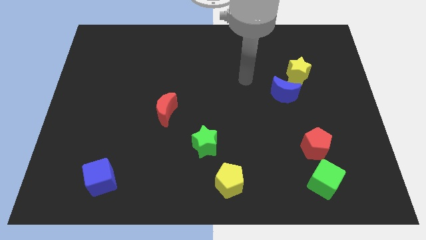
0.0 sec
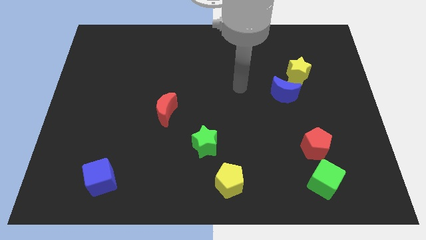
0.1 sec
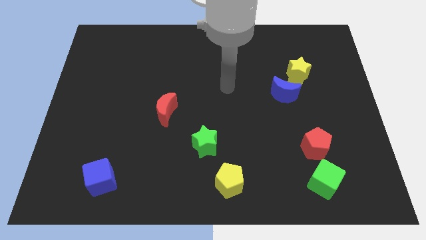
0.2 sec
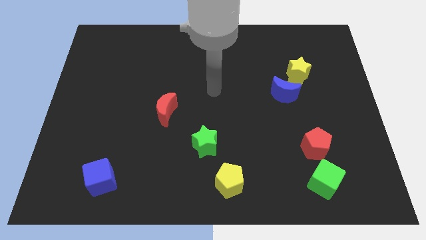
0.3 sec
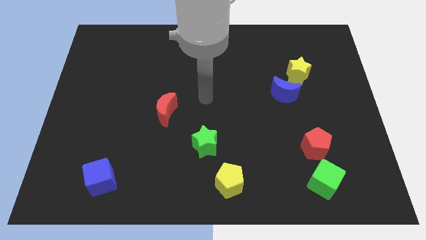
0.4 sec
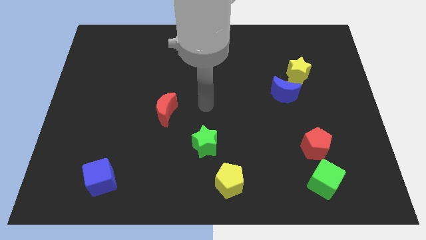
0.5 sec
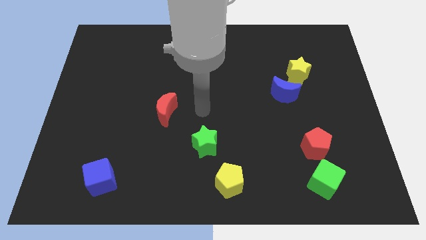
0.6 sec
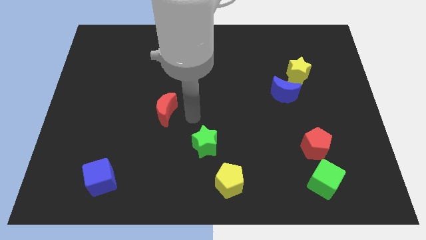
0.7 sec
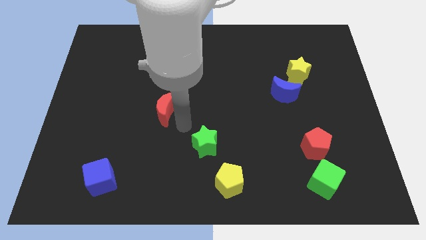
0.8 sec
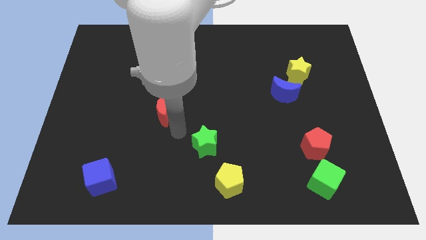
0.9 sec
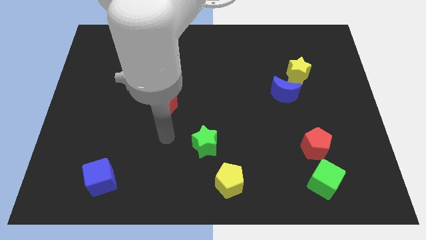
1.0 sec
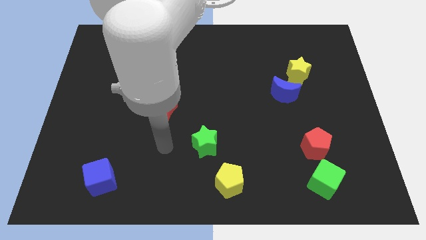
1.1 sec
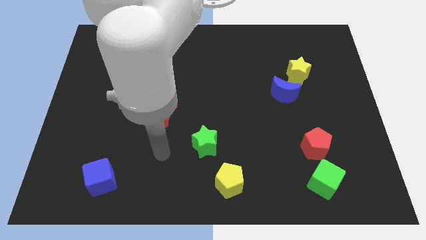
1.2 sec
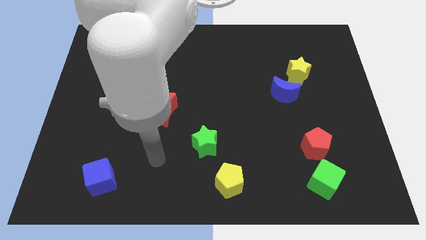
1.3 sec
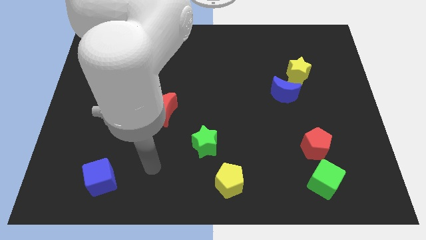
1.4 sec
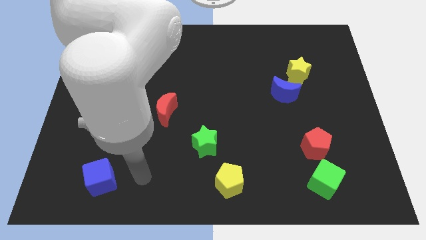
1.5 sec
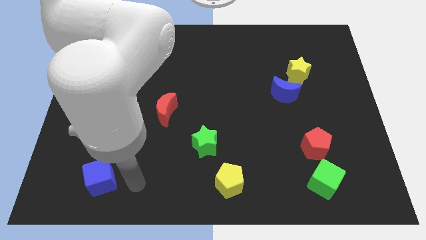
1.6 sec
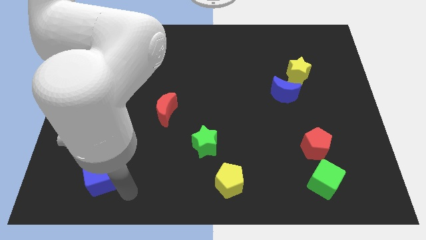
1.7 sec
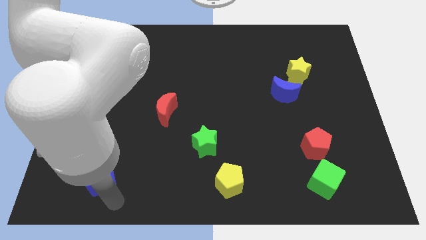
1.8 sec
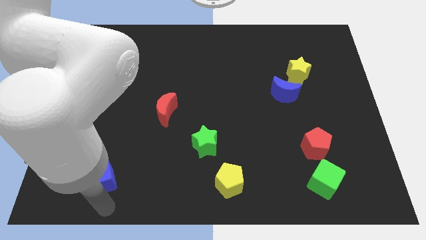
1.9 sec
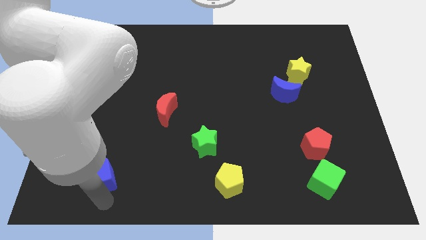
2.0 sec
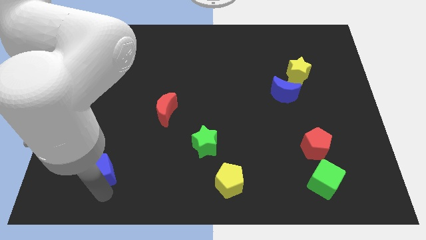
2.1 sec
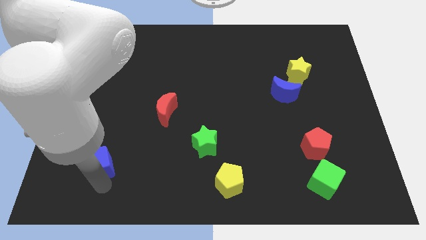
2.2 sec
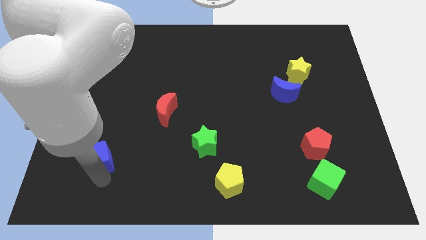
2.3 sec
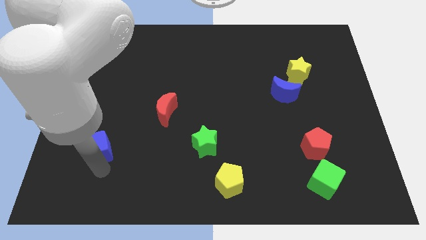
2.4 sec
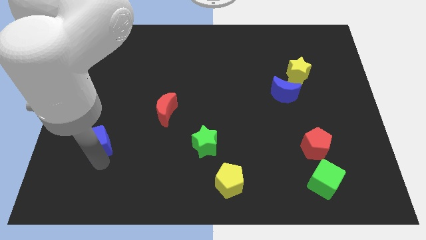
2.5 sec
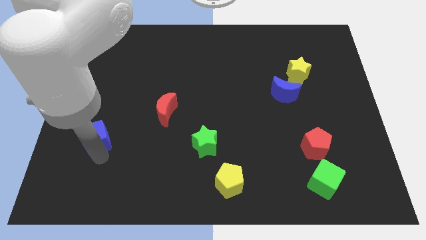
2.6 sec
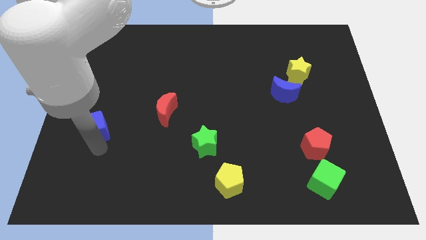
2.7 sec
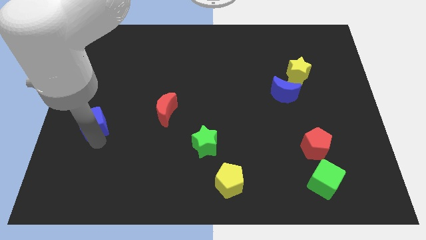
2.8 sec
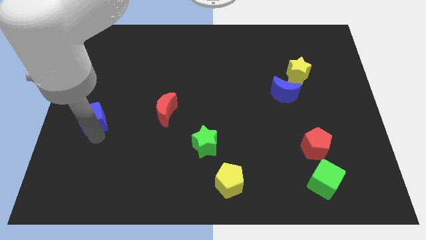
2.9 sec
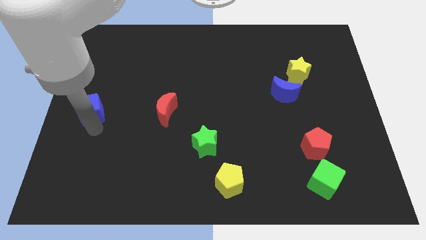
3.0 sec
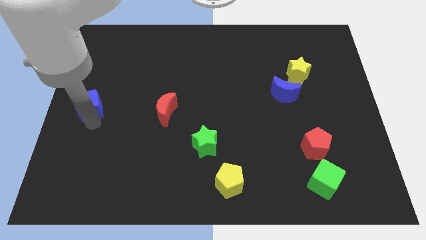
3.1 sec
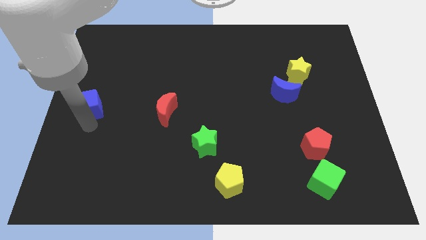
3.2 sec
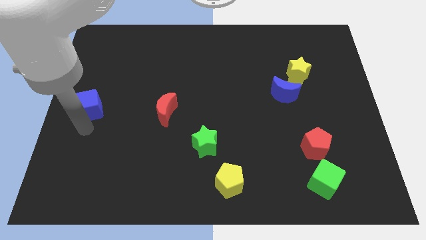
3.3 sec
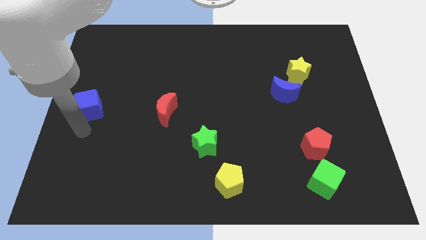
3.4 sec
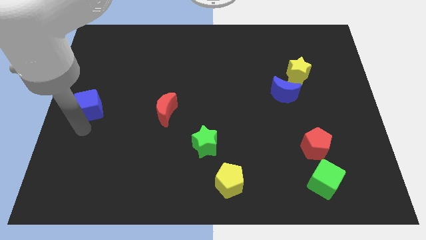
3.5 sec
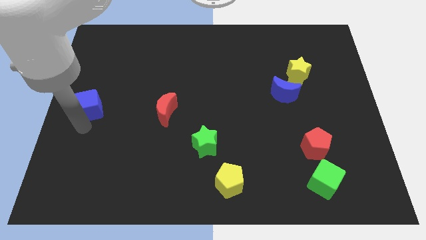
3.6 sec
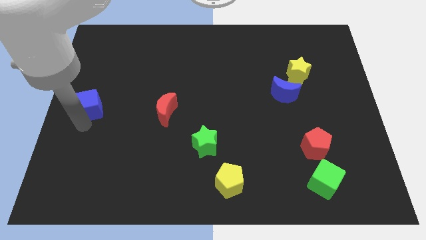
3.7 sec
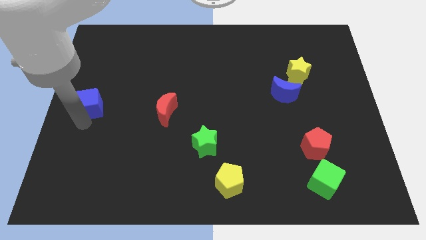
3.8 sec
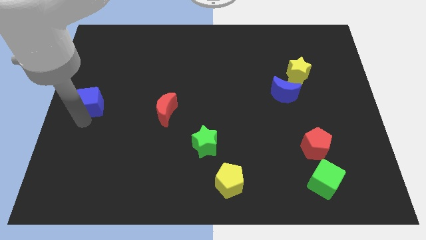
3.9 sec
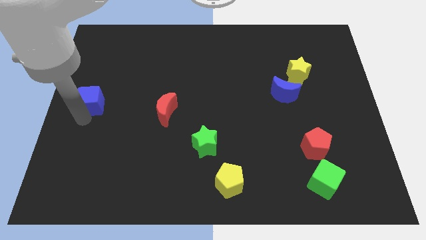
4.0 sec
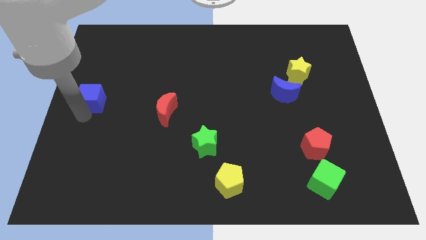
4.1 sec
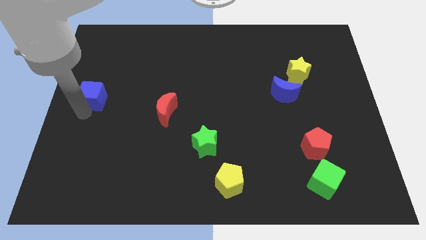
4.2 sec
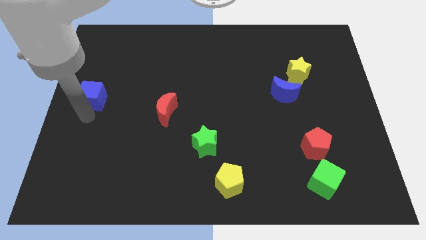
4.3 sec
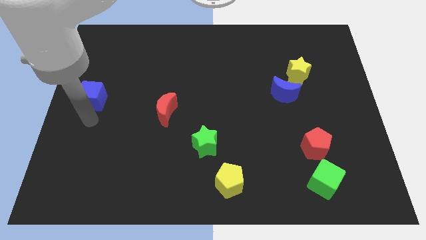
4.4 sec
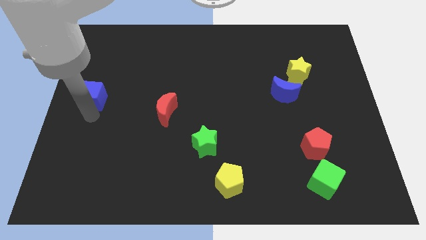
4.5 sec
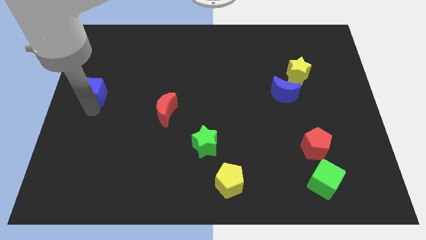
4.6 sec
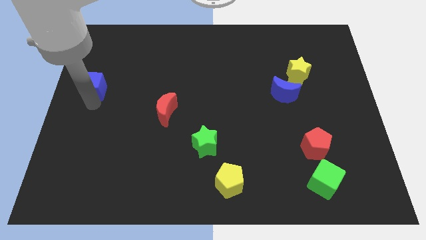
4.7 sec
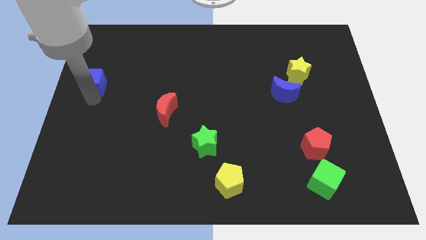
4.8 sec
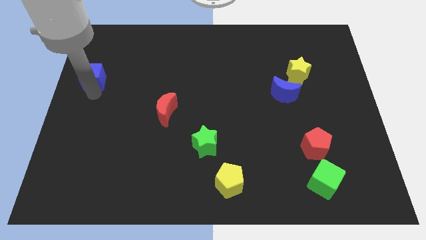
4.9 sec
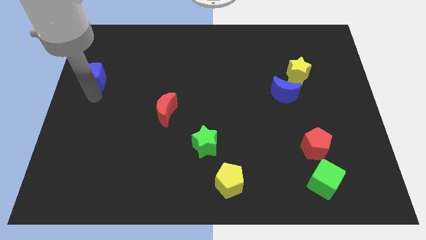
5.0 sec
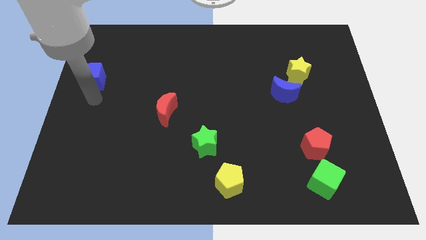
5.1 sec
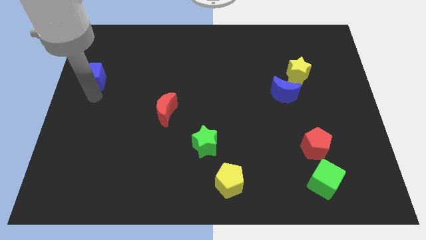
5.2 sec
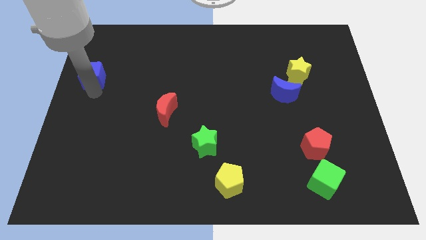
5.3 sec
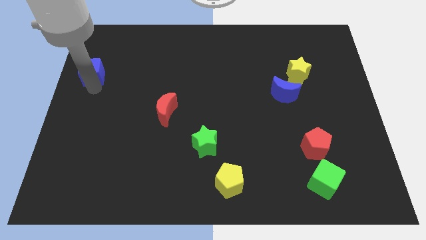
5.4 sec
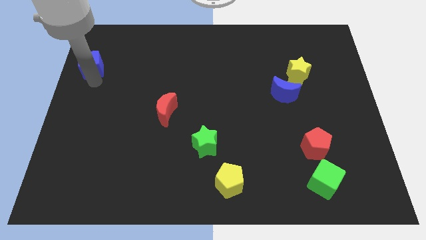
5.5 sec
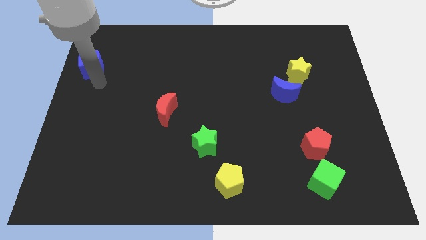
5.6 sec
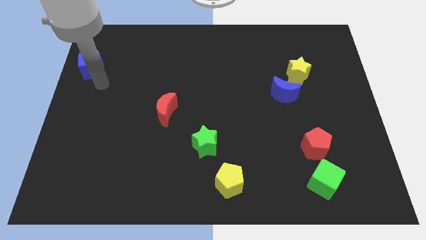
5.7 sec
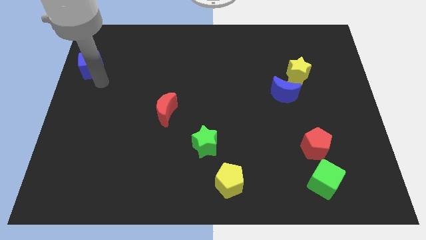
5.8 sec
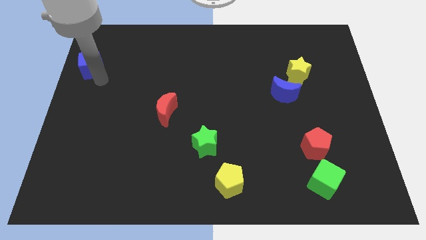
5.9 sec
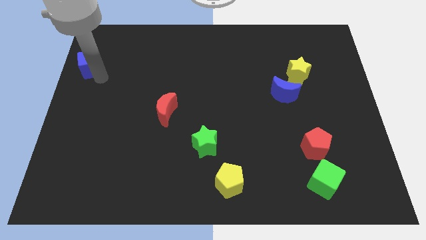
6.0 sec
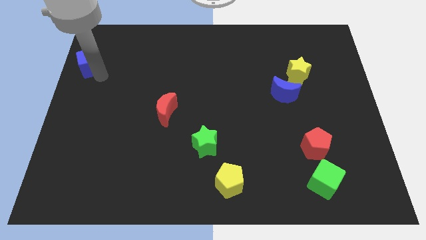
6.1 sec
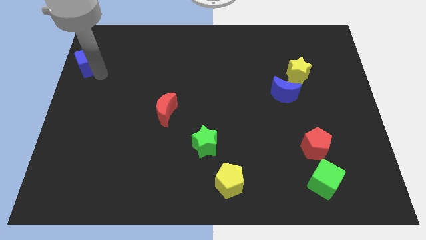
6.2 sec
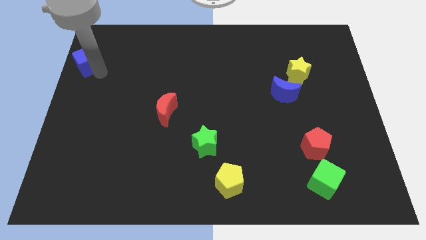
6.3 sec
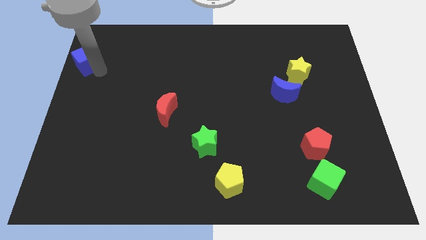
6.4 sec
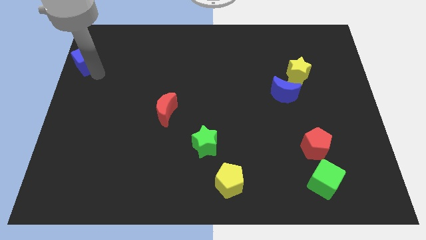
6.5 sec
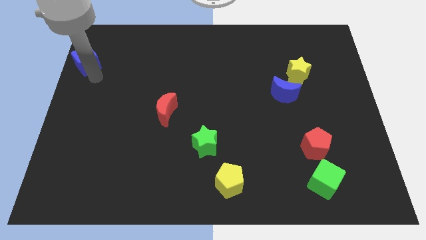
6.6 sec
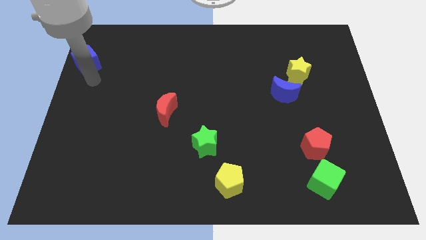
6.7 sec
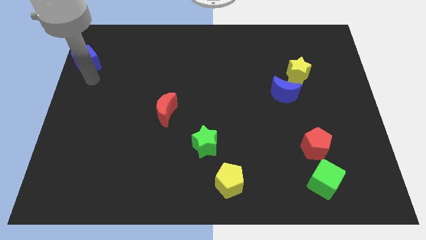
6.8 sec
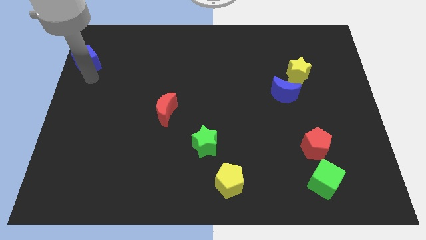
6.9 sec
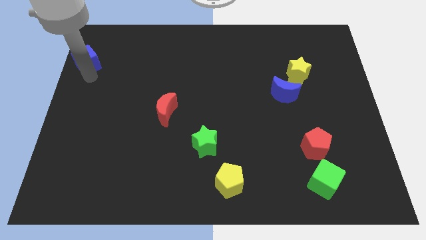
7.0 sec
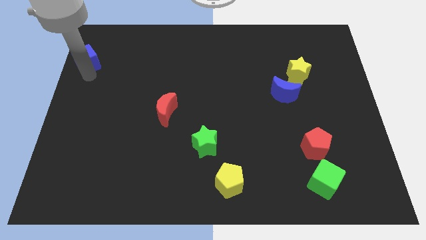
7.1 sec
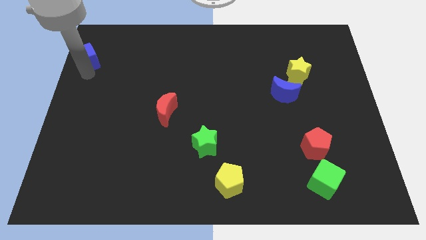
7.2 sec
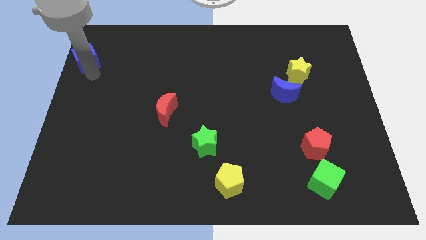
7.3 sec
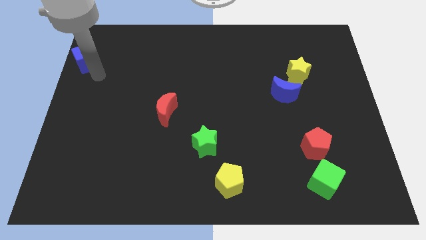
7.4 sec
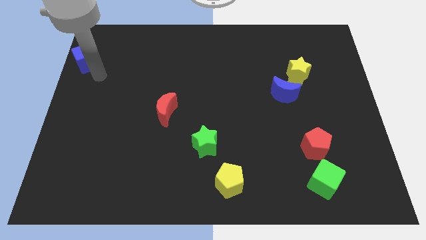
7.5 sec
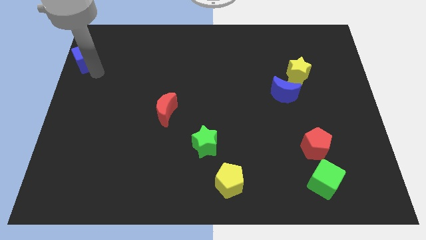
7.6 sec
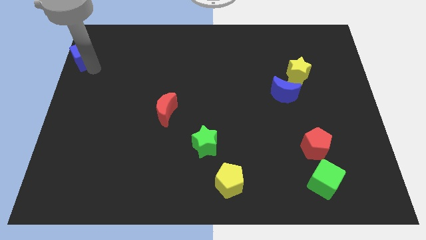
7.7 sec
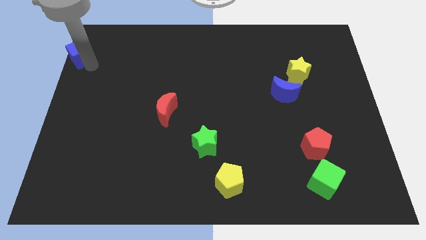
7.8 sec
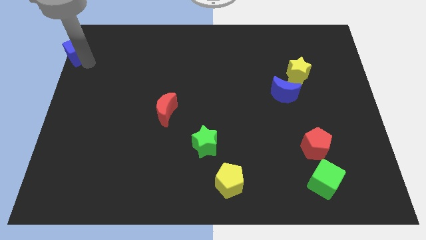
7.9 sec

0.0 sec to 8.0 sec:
move the blue cube to the top left
